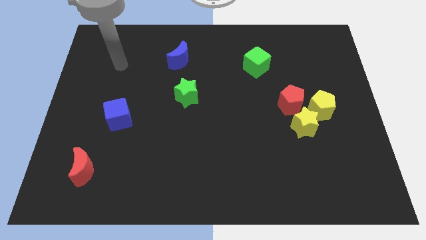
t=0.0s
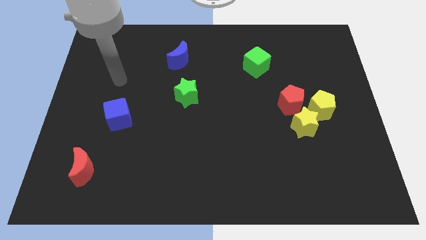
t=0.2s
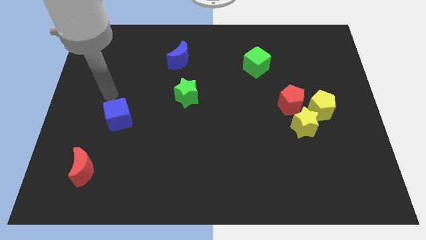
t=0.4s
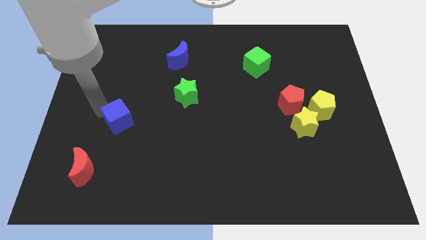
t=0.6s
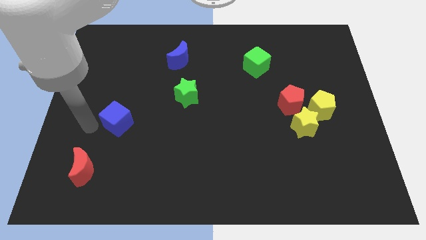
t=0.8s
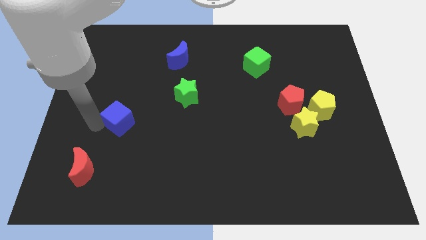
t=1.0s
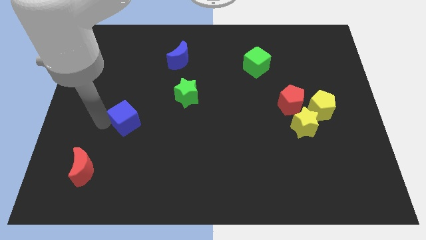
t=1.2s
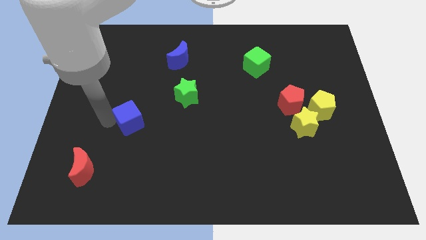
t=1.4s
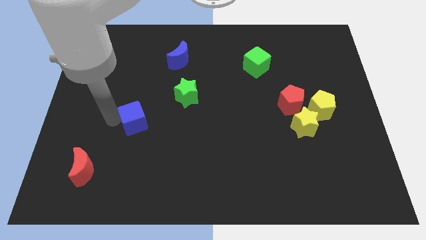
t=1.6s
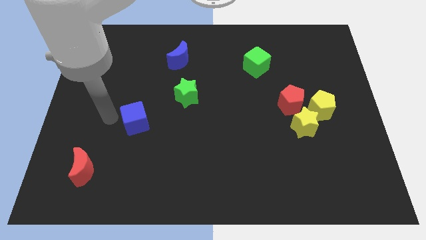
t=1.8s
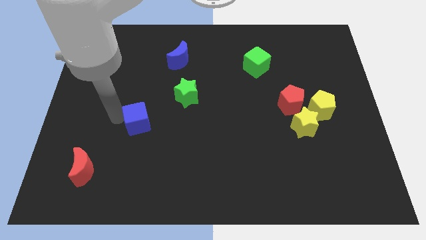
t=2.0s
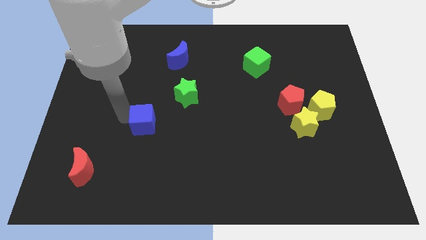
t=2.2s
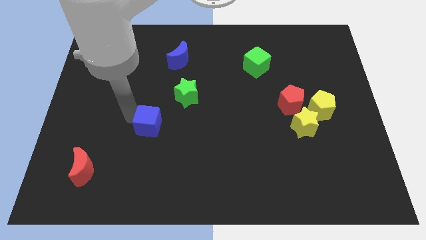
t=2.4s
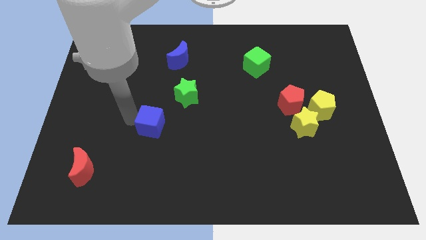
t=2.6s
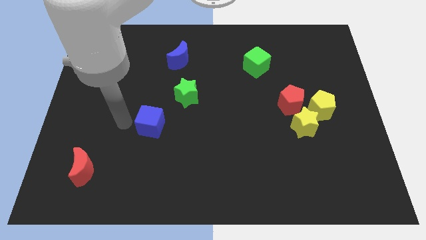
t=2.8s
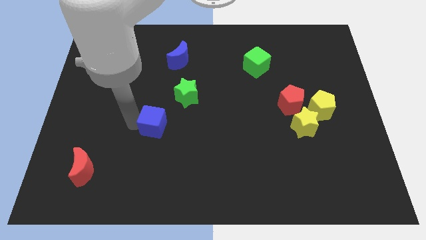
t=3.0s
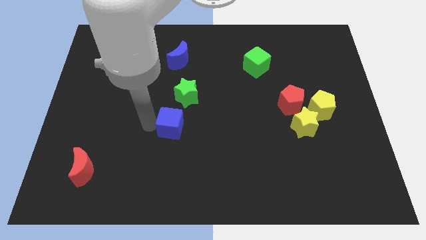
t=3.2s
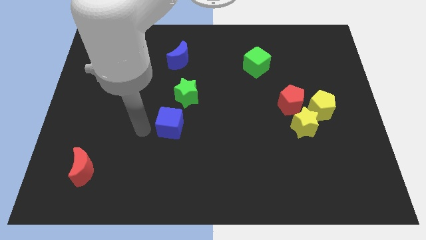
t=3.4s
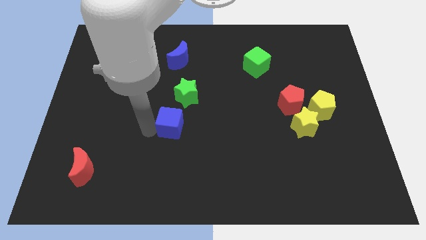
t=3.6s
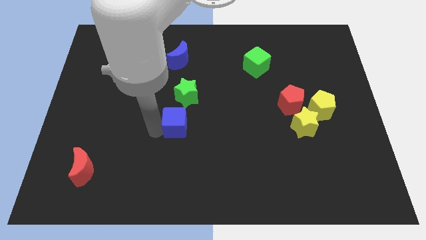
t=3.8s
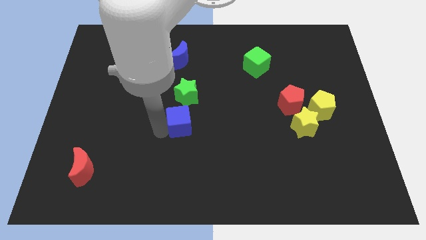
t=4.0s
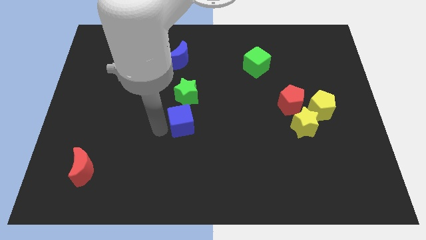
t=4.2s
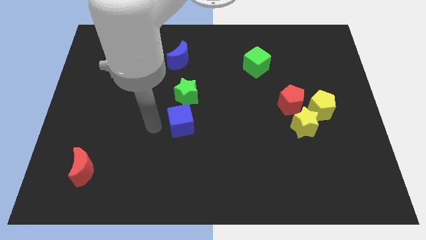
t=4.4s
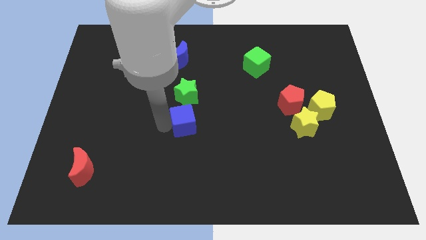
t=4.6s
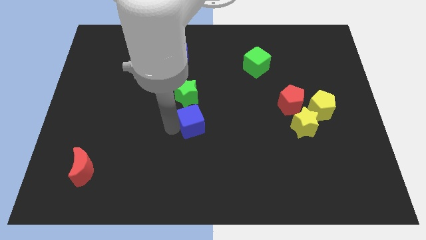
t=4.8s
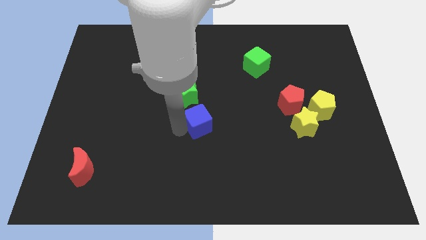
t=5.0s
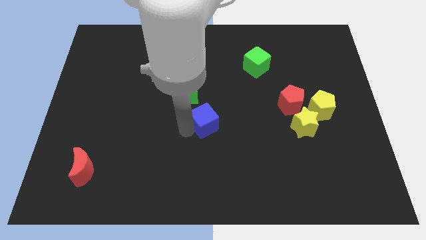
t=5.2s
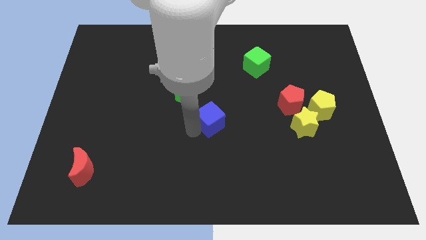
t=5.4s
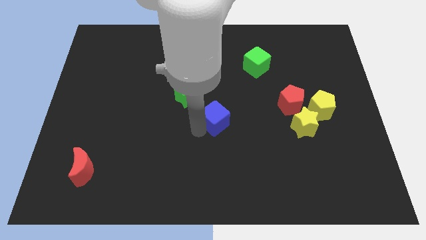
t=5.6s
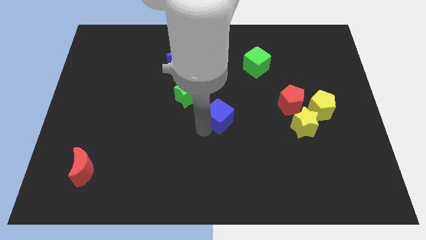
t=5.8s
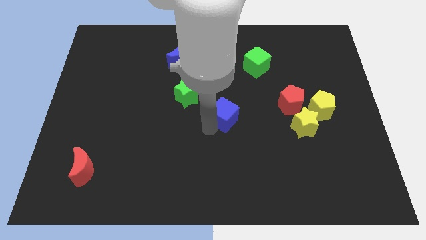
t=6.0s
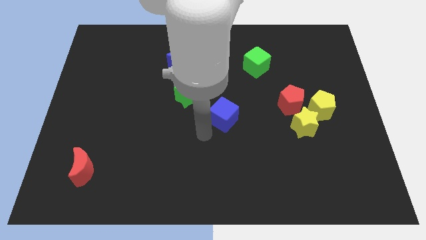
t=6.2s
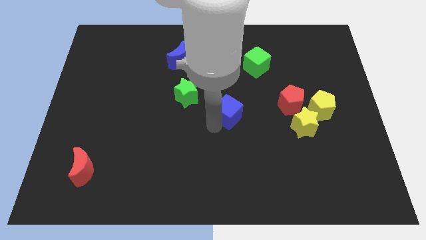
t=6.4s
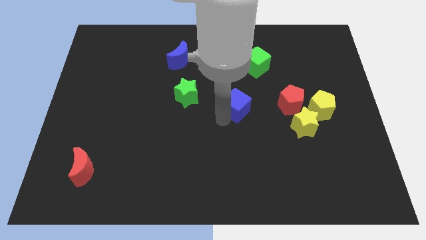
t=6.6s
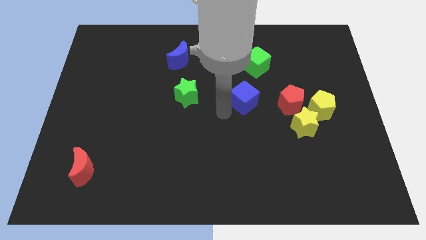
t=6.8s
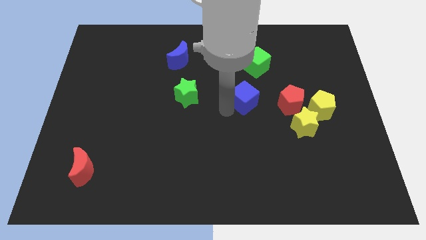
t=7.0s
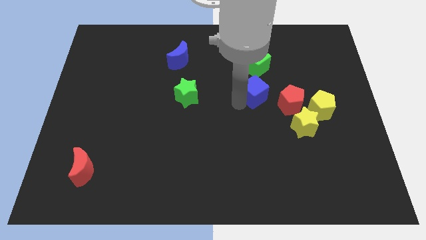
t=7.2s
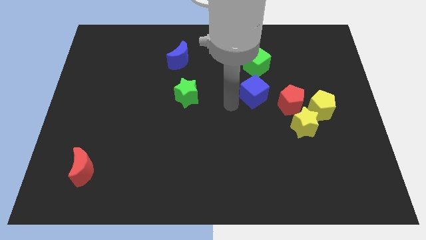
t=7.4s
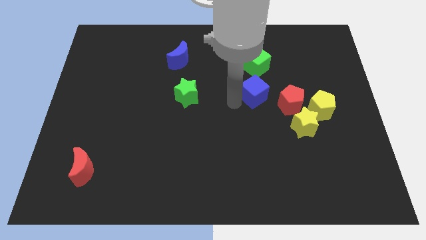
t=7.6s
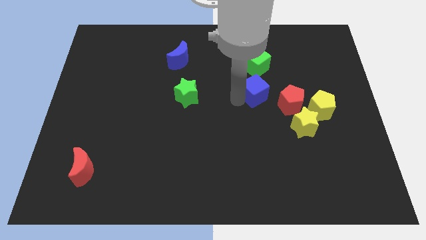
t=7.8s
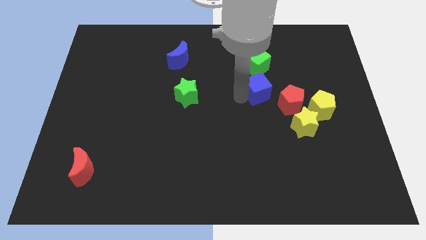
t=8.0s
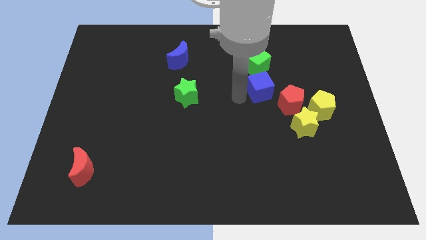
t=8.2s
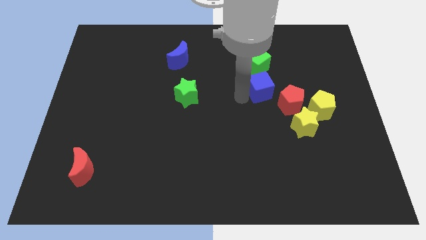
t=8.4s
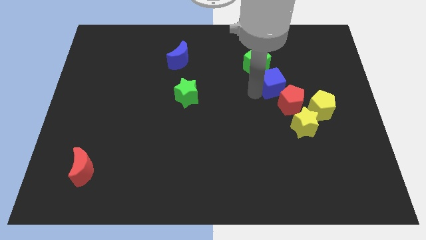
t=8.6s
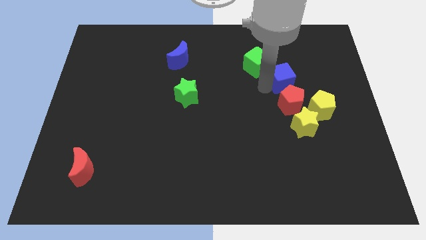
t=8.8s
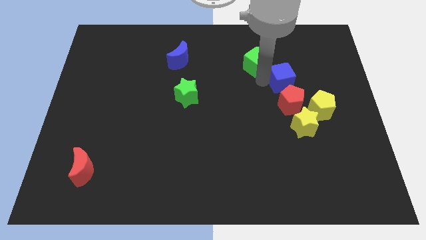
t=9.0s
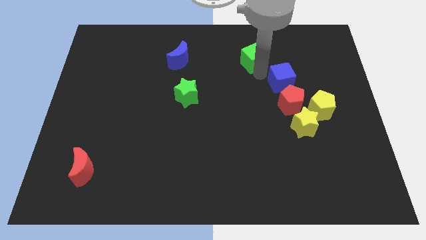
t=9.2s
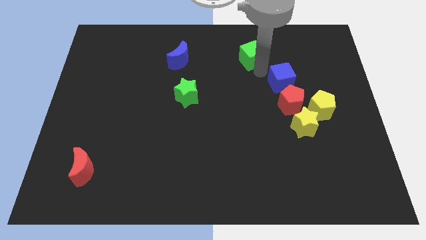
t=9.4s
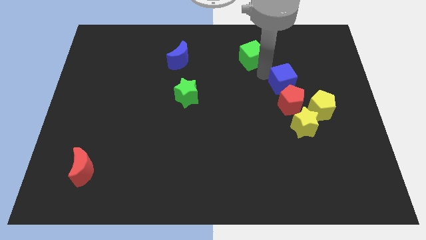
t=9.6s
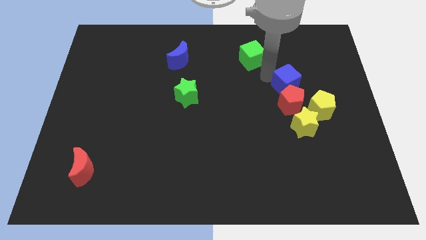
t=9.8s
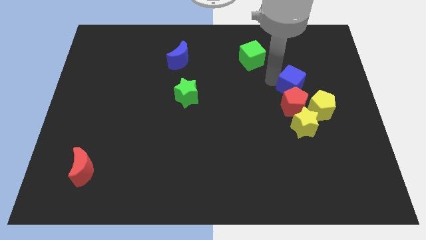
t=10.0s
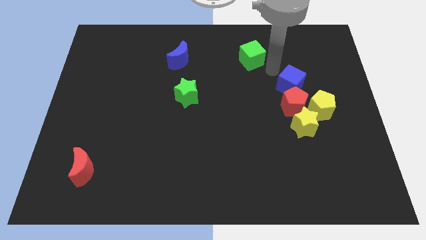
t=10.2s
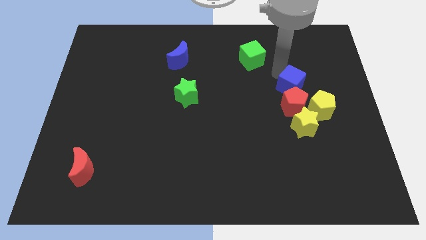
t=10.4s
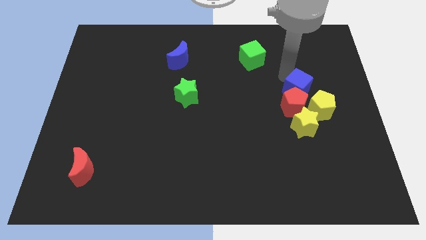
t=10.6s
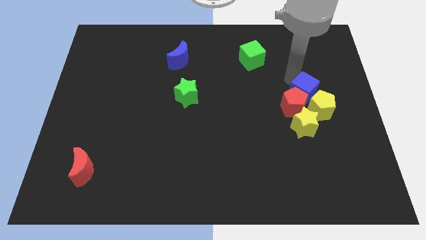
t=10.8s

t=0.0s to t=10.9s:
move the blue cube to the yellow pentagon

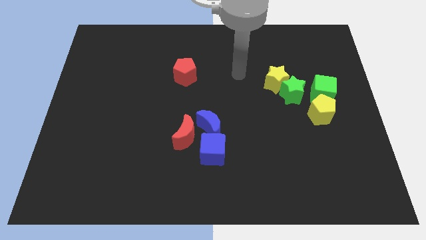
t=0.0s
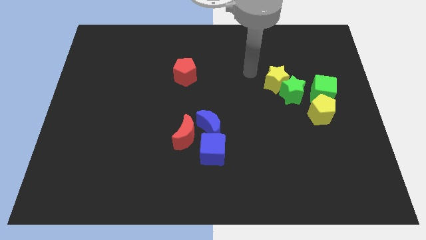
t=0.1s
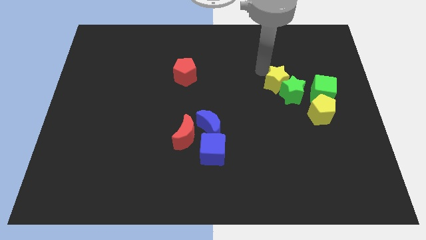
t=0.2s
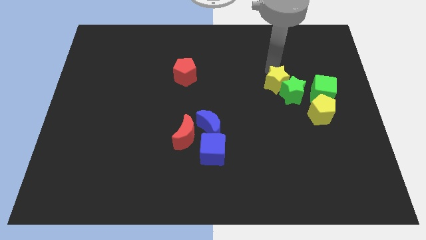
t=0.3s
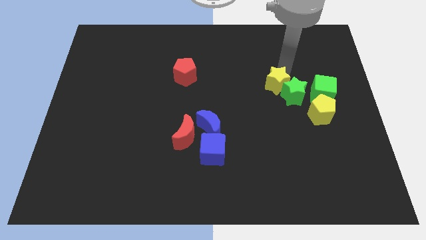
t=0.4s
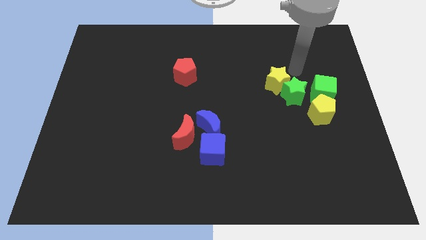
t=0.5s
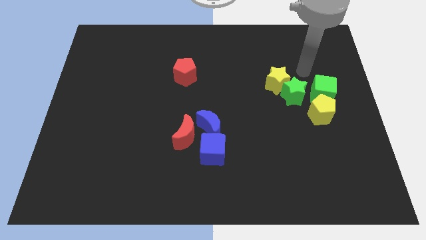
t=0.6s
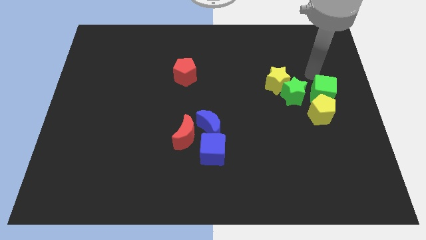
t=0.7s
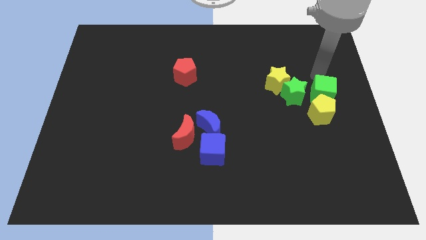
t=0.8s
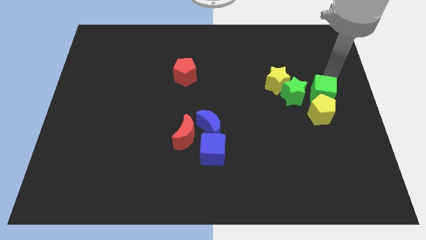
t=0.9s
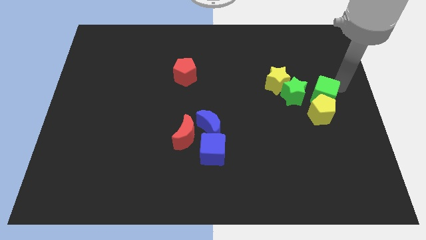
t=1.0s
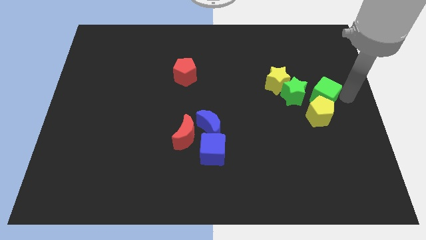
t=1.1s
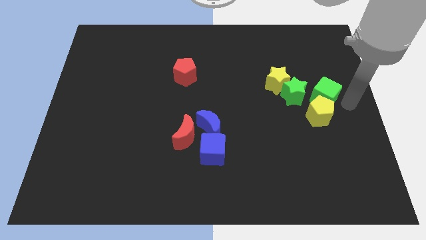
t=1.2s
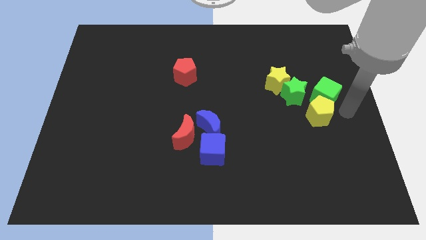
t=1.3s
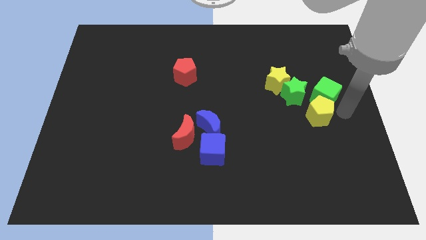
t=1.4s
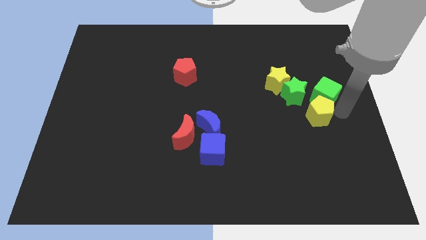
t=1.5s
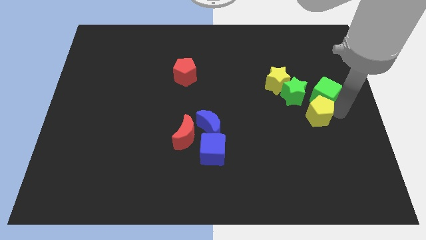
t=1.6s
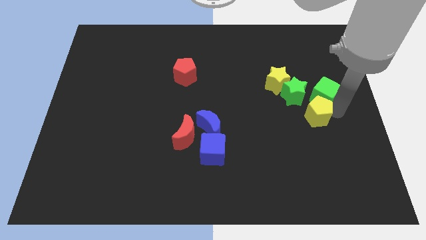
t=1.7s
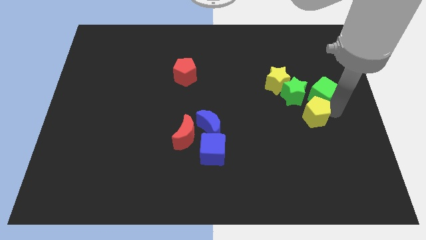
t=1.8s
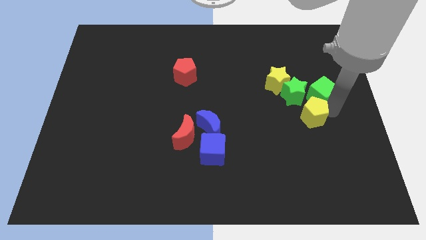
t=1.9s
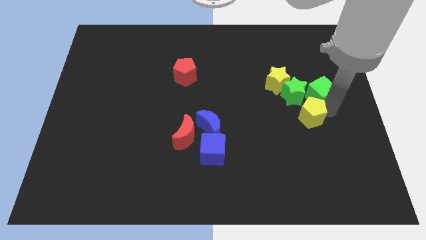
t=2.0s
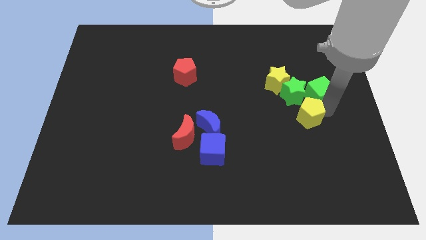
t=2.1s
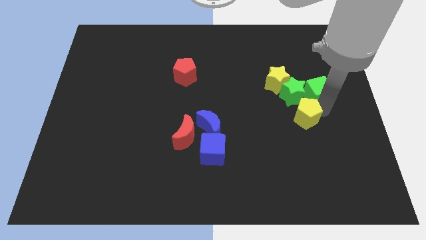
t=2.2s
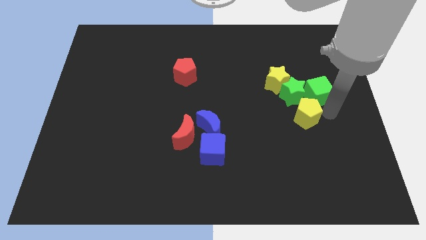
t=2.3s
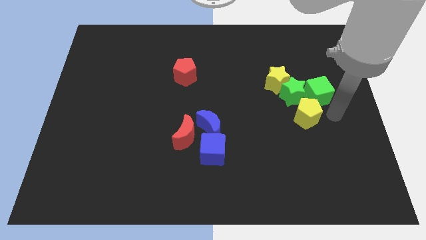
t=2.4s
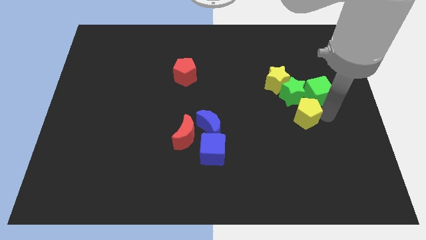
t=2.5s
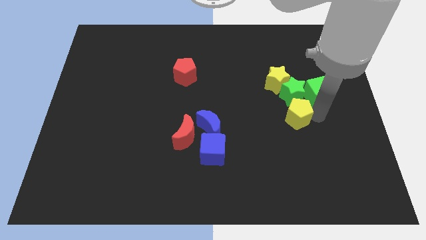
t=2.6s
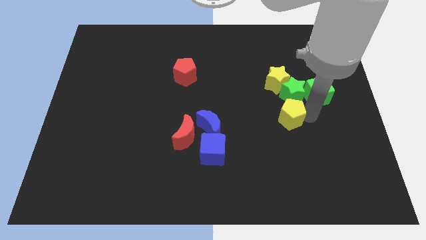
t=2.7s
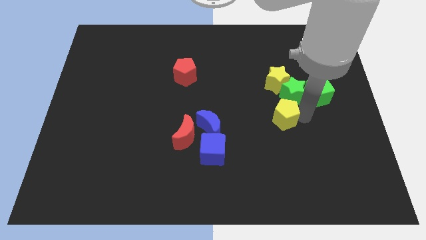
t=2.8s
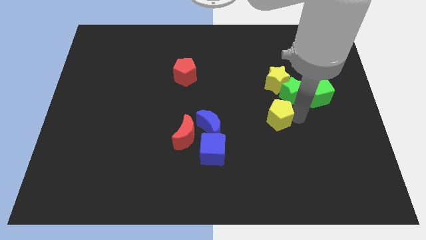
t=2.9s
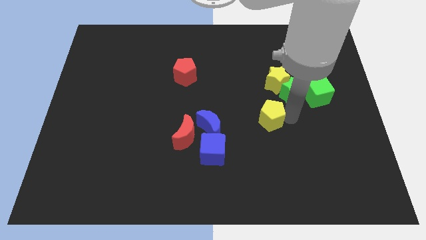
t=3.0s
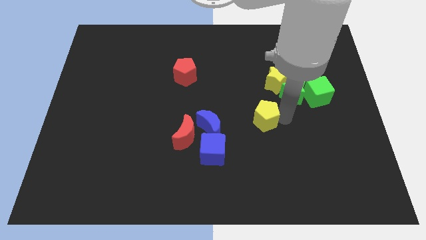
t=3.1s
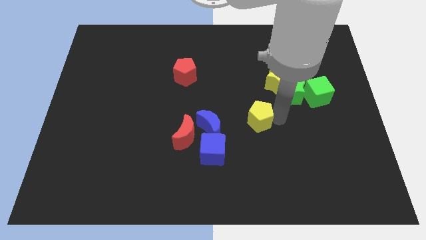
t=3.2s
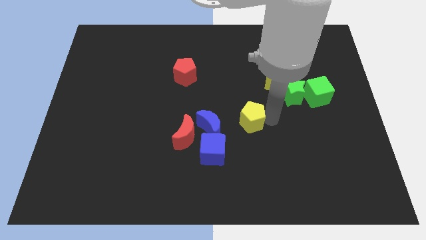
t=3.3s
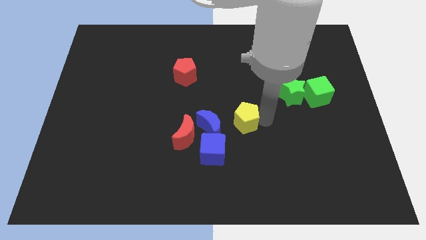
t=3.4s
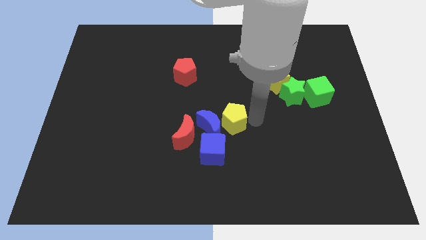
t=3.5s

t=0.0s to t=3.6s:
move the yellow pentagon next to the blue moon
